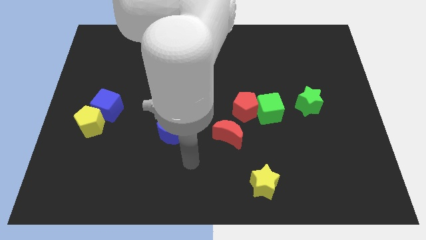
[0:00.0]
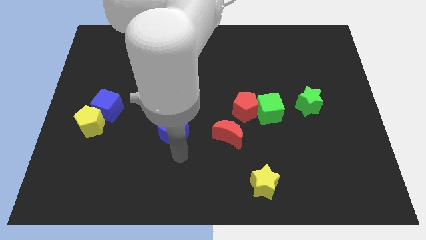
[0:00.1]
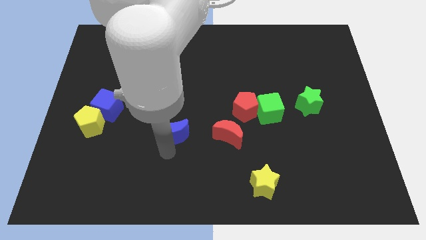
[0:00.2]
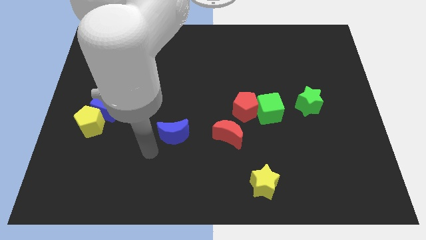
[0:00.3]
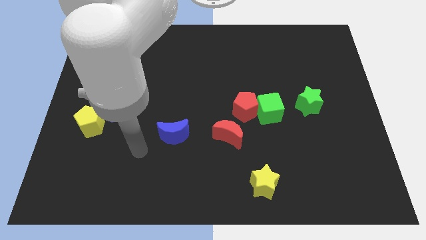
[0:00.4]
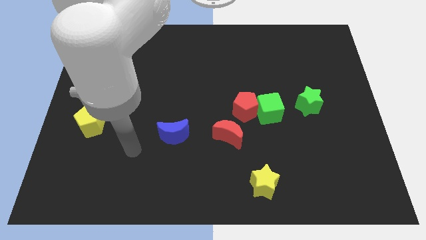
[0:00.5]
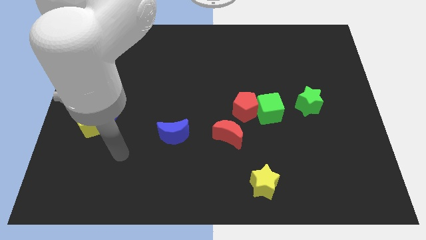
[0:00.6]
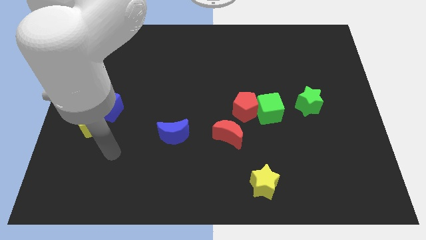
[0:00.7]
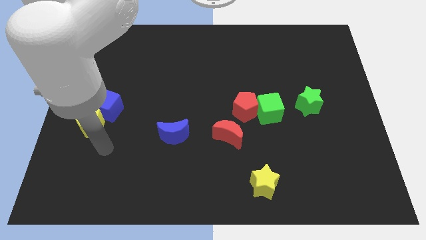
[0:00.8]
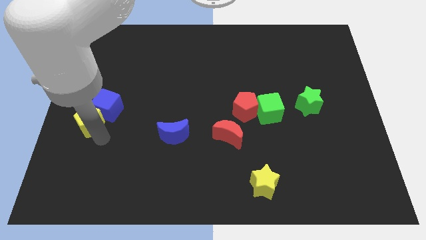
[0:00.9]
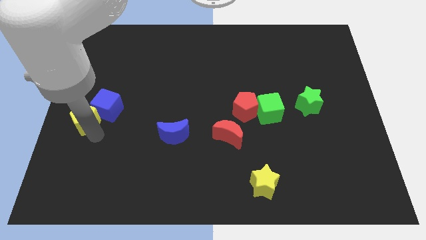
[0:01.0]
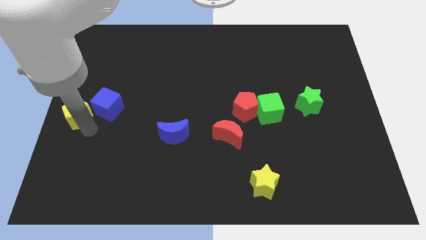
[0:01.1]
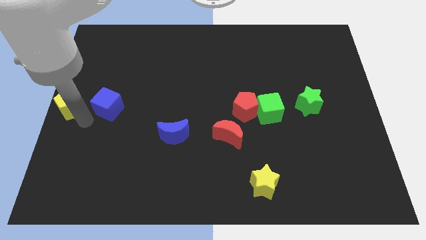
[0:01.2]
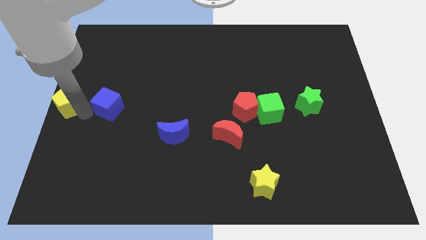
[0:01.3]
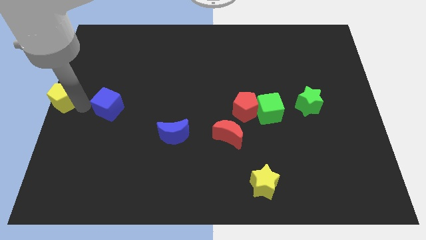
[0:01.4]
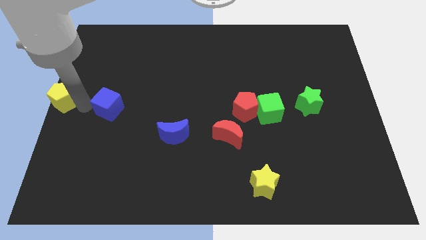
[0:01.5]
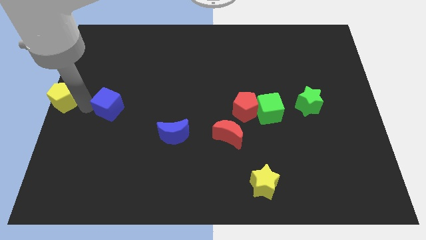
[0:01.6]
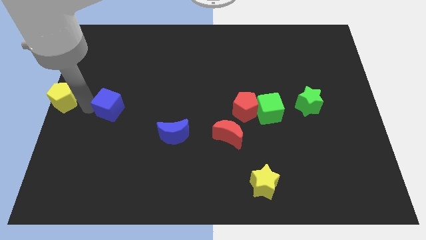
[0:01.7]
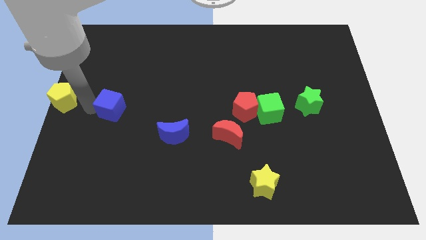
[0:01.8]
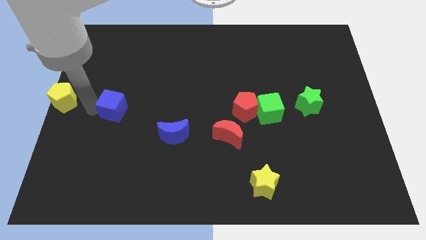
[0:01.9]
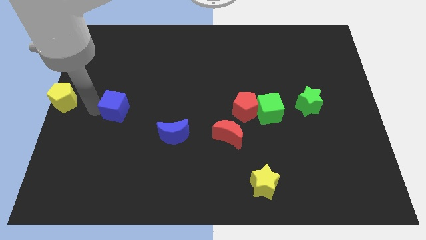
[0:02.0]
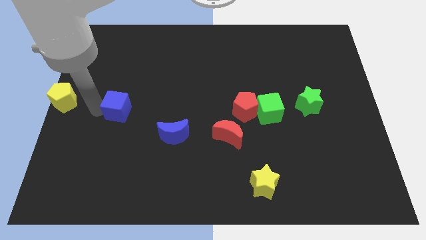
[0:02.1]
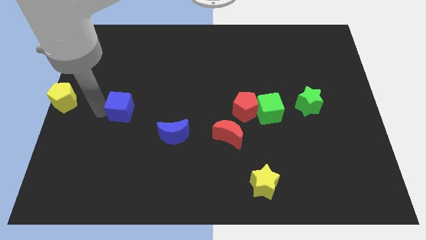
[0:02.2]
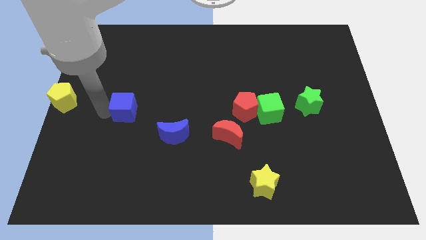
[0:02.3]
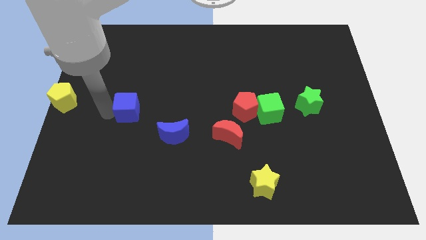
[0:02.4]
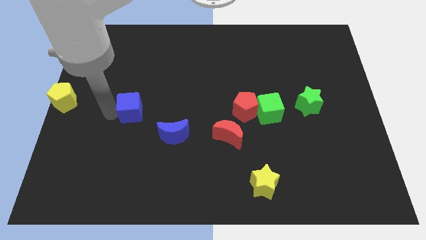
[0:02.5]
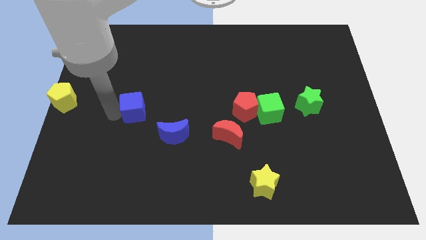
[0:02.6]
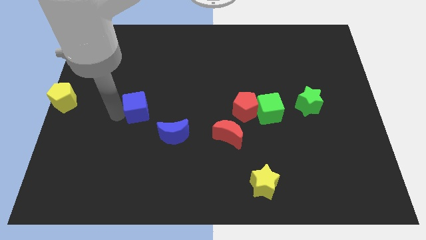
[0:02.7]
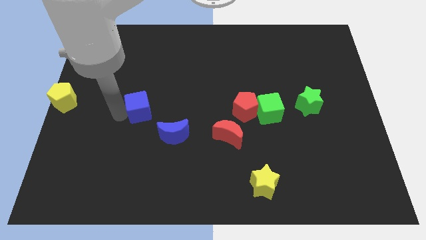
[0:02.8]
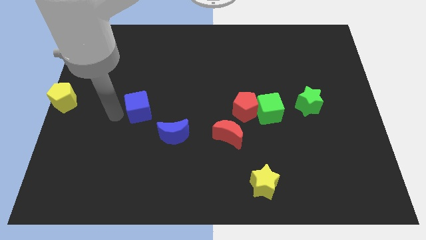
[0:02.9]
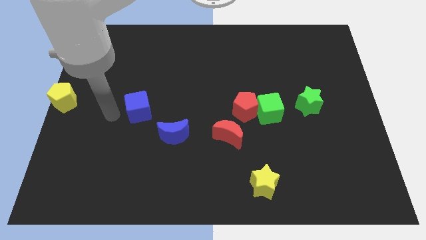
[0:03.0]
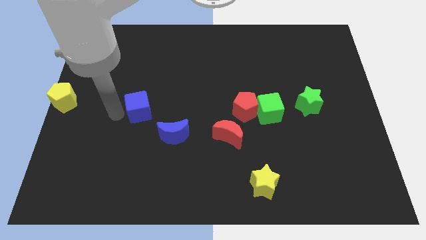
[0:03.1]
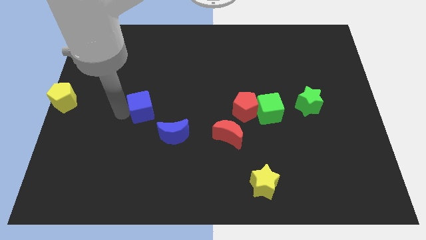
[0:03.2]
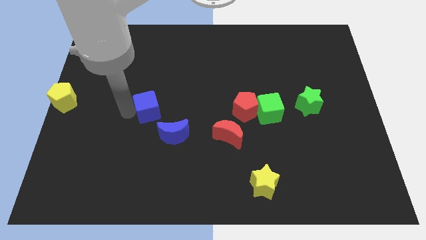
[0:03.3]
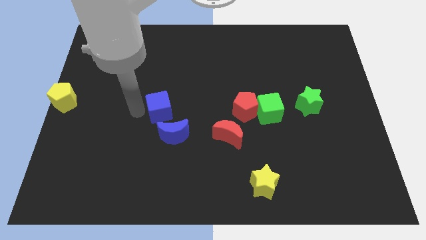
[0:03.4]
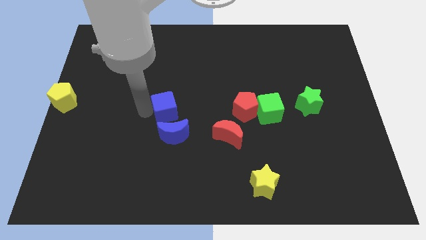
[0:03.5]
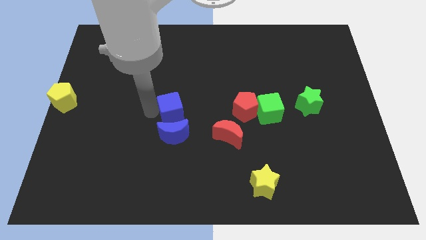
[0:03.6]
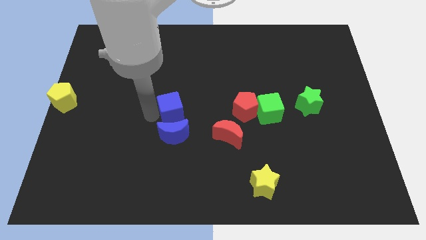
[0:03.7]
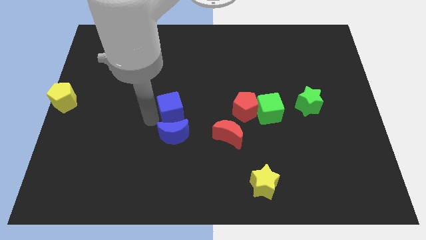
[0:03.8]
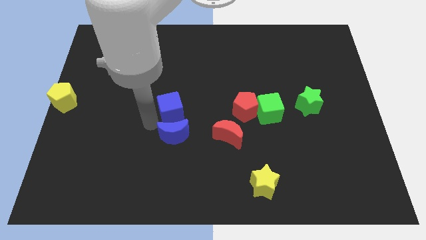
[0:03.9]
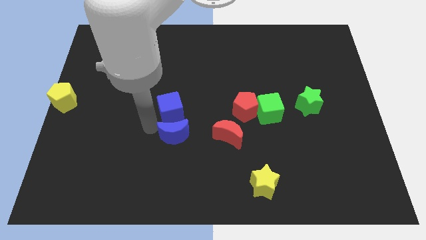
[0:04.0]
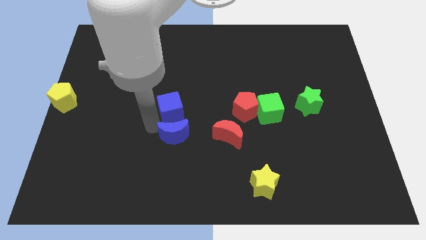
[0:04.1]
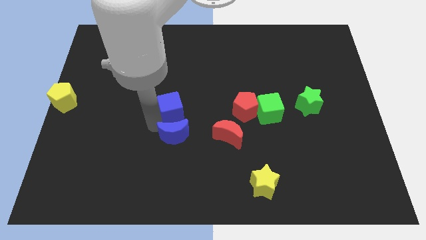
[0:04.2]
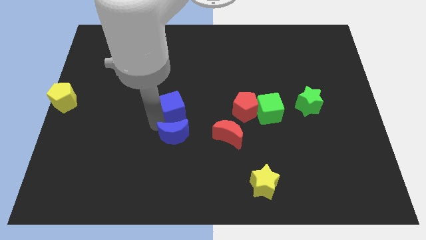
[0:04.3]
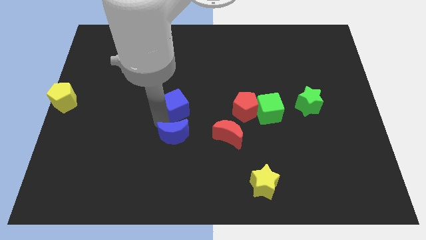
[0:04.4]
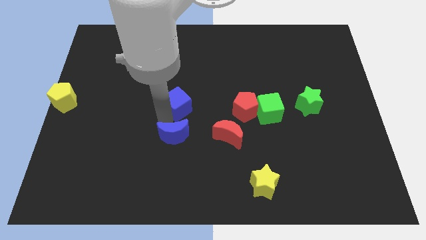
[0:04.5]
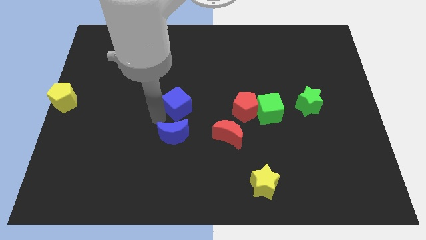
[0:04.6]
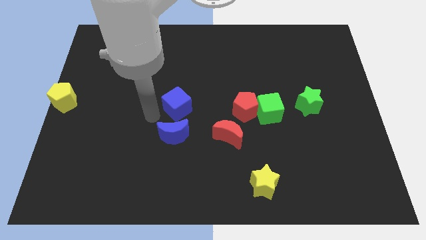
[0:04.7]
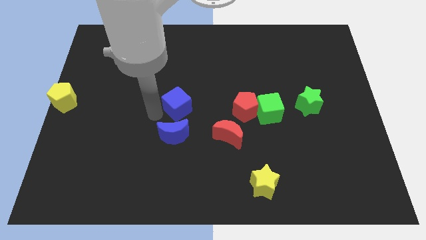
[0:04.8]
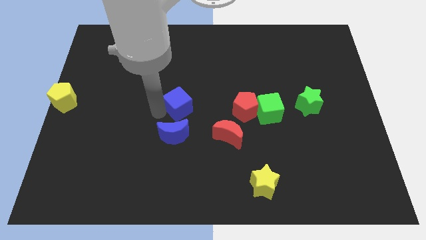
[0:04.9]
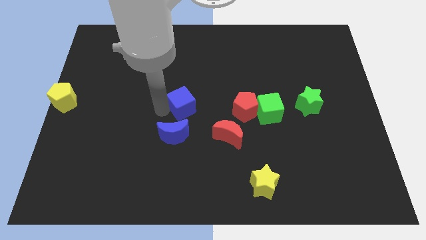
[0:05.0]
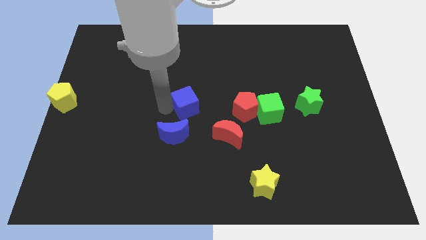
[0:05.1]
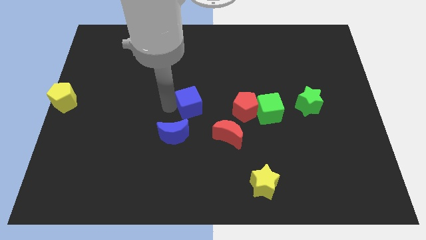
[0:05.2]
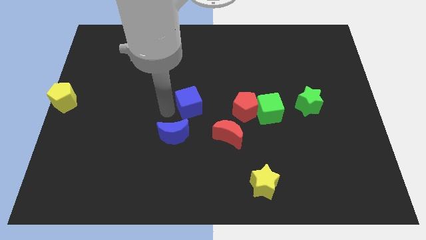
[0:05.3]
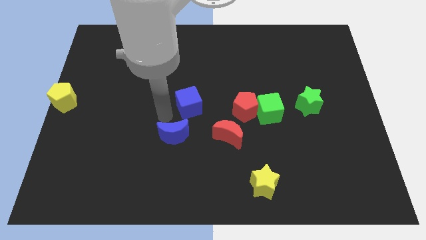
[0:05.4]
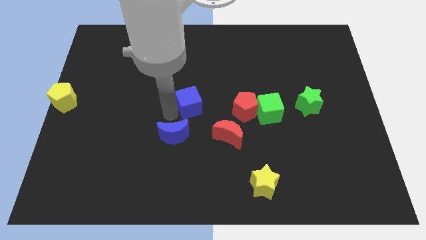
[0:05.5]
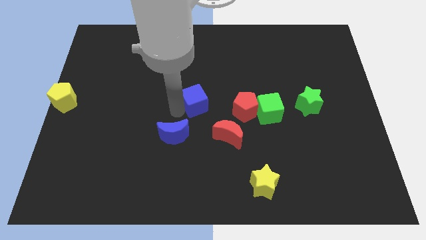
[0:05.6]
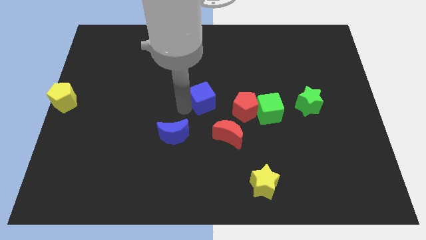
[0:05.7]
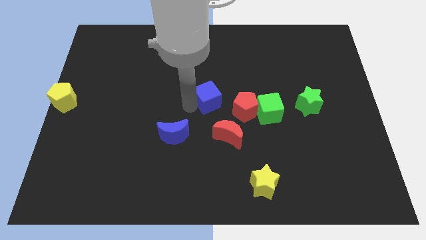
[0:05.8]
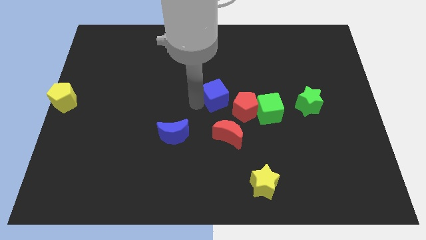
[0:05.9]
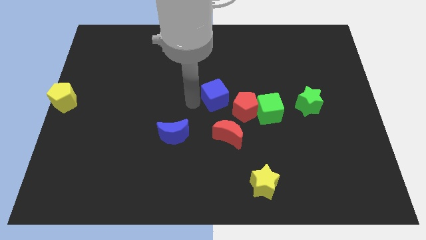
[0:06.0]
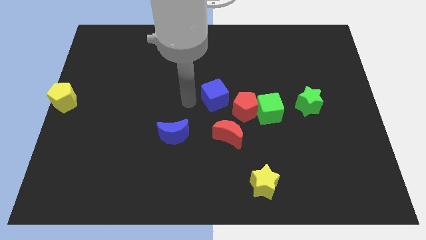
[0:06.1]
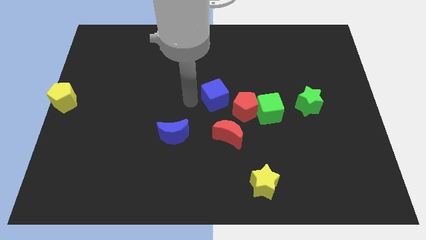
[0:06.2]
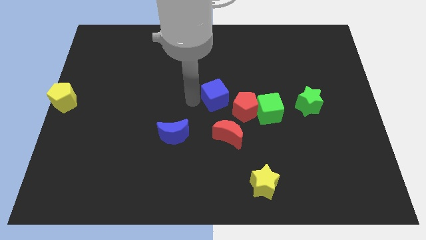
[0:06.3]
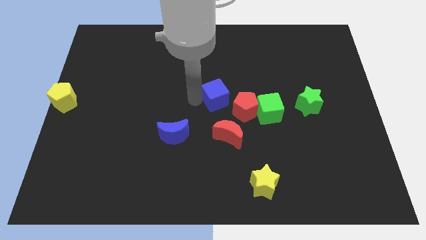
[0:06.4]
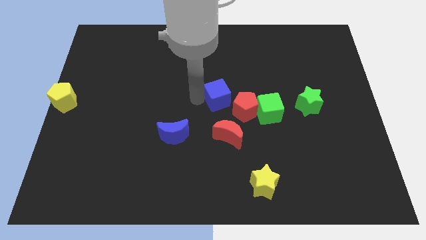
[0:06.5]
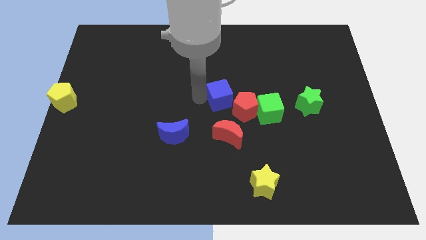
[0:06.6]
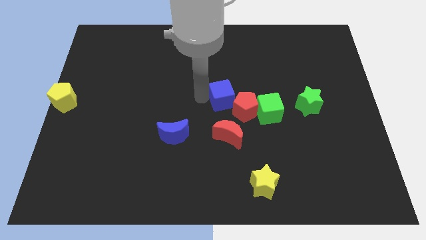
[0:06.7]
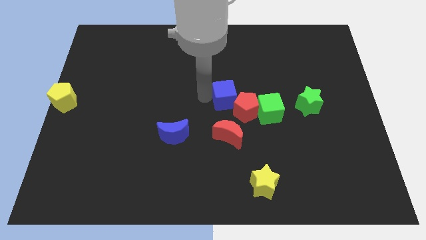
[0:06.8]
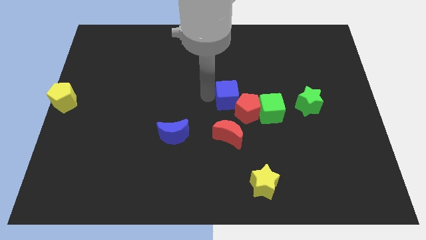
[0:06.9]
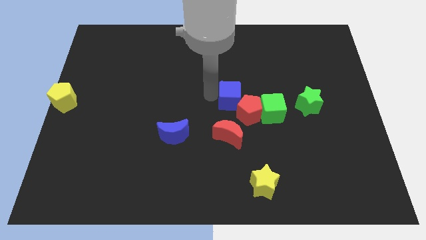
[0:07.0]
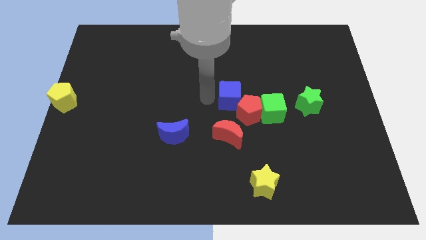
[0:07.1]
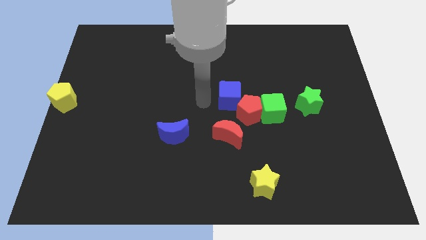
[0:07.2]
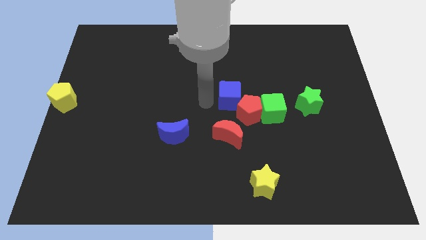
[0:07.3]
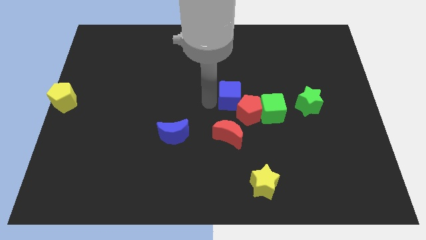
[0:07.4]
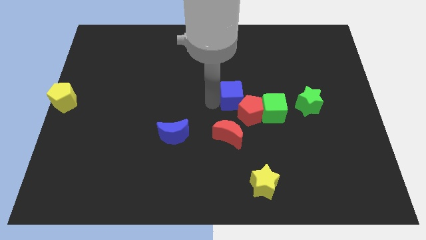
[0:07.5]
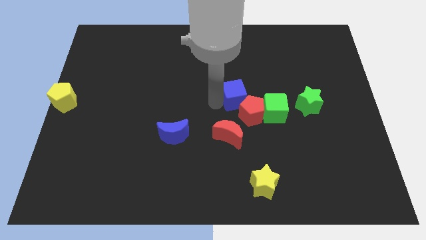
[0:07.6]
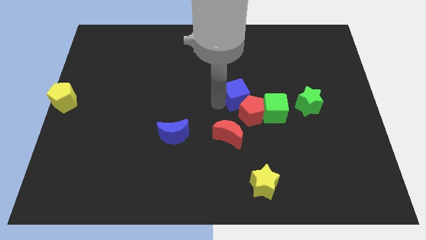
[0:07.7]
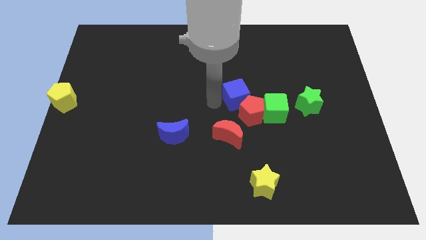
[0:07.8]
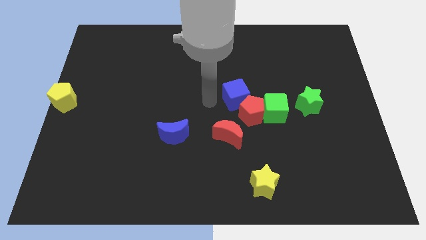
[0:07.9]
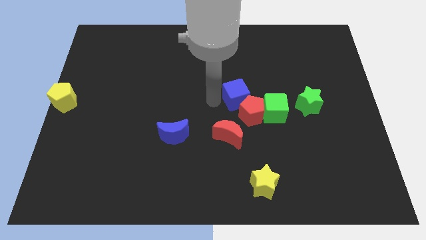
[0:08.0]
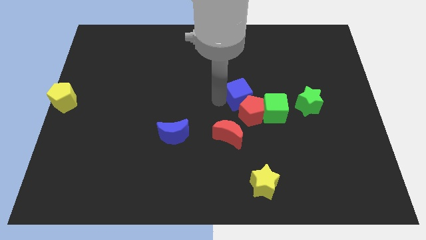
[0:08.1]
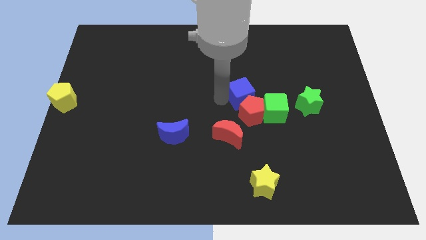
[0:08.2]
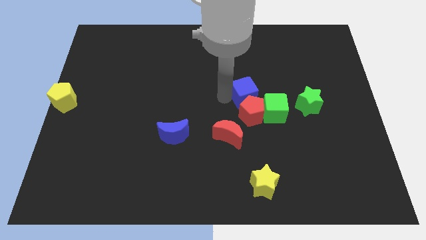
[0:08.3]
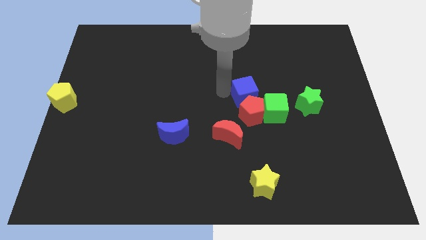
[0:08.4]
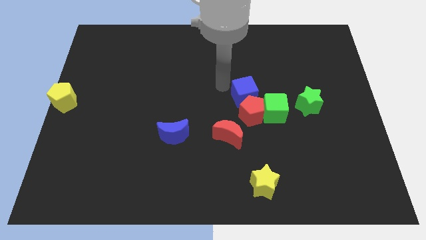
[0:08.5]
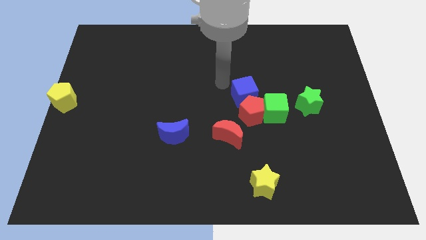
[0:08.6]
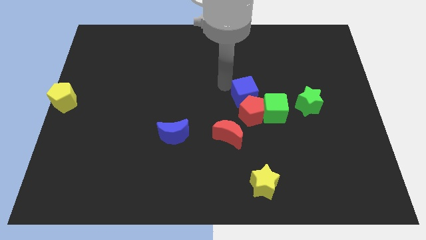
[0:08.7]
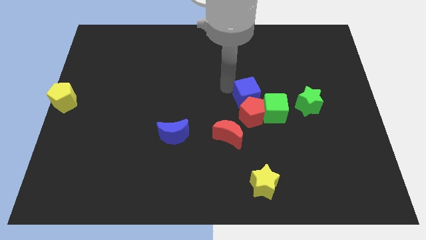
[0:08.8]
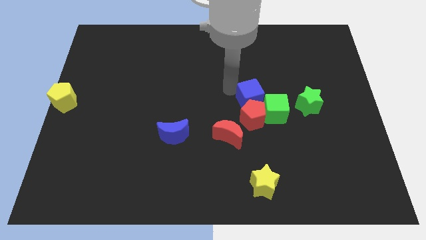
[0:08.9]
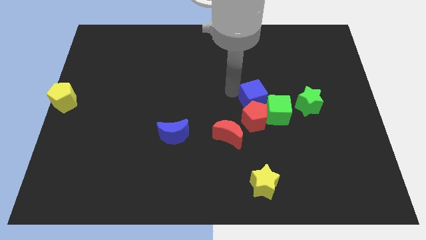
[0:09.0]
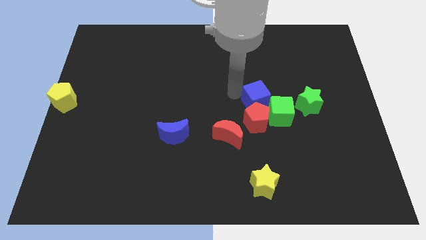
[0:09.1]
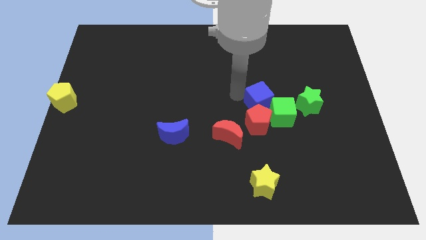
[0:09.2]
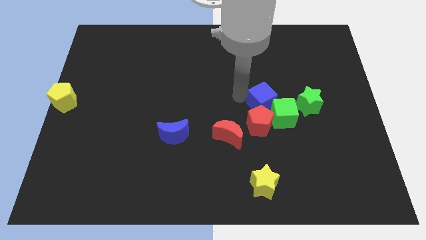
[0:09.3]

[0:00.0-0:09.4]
put the blue cube close to the green cube
